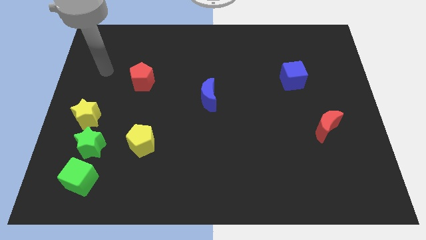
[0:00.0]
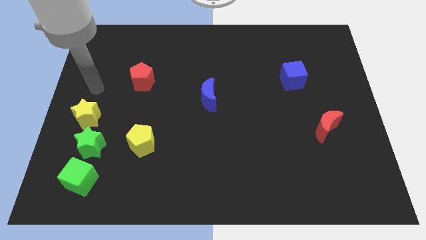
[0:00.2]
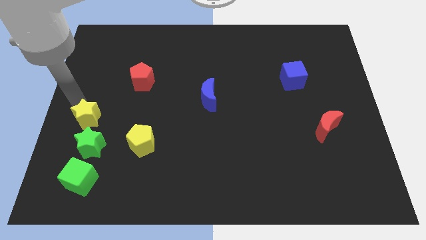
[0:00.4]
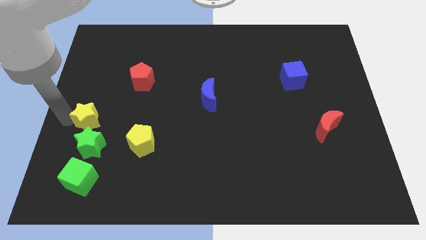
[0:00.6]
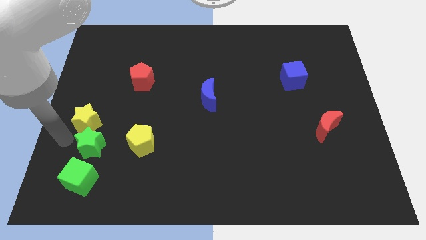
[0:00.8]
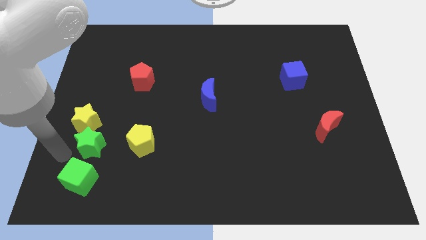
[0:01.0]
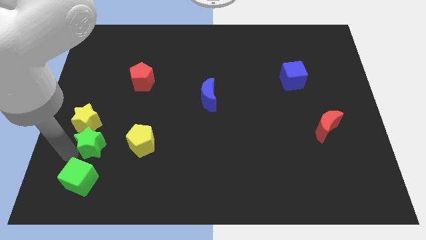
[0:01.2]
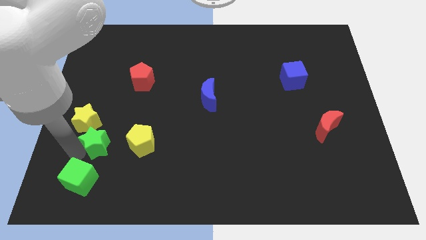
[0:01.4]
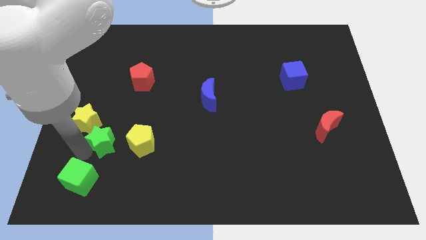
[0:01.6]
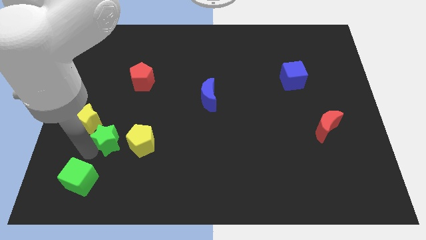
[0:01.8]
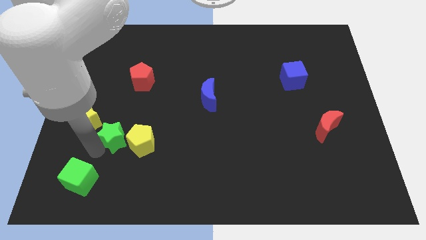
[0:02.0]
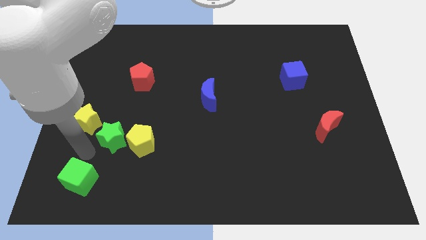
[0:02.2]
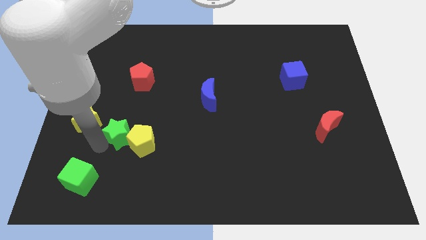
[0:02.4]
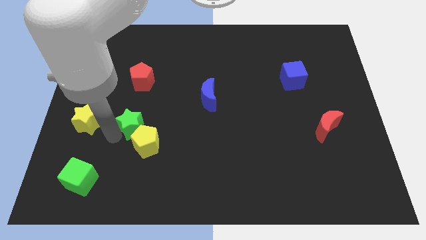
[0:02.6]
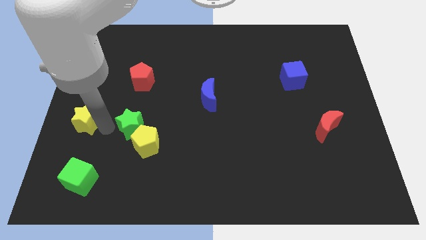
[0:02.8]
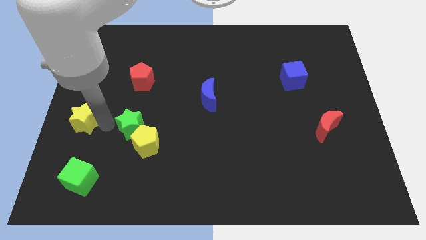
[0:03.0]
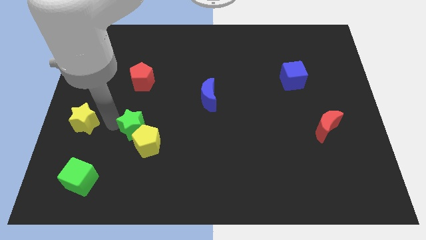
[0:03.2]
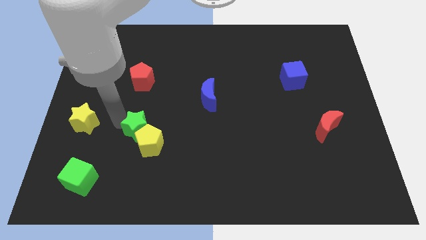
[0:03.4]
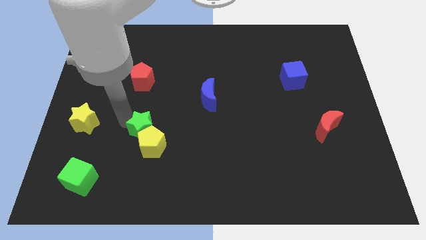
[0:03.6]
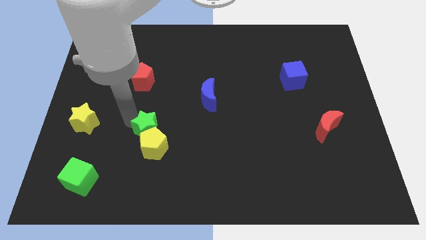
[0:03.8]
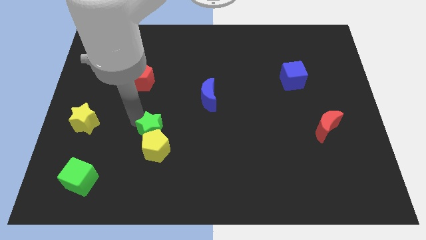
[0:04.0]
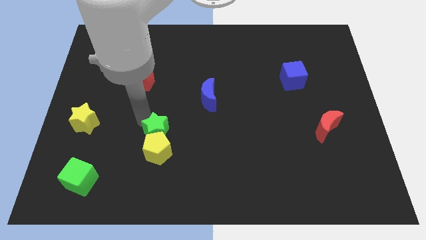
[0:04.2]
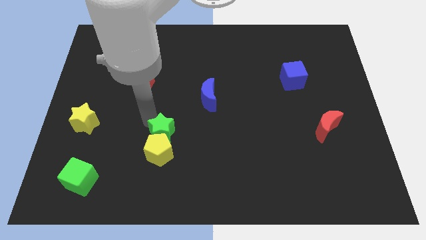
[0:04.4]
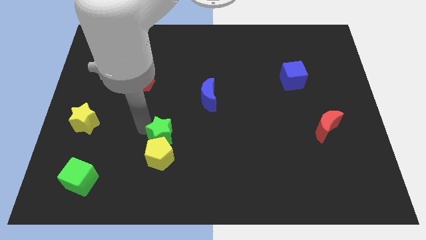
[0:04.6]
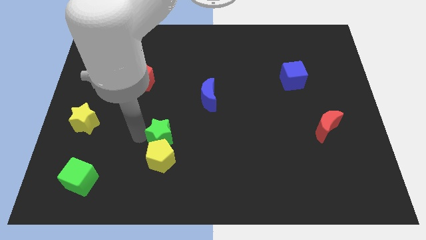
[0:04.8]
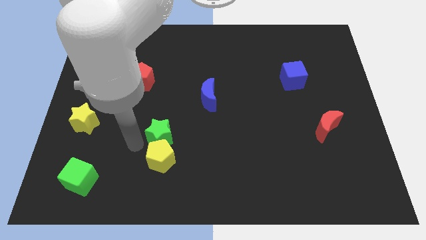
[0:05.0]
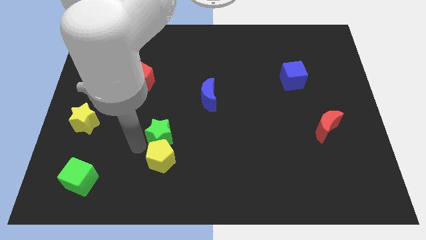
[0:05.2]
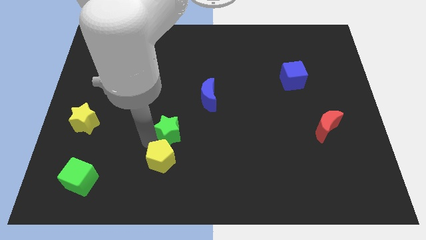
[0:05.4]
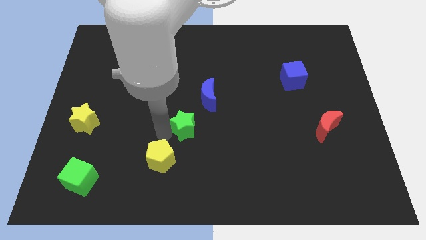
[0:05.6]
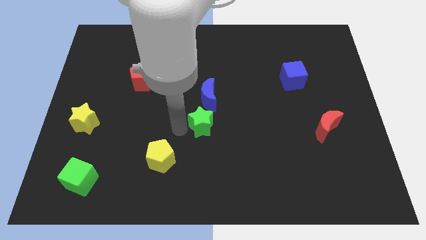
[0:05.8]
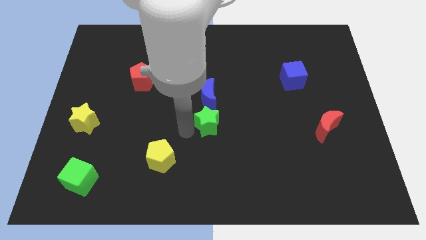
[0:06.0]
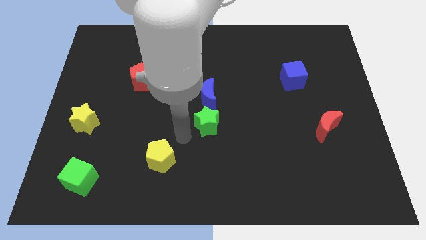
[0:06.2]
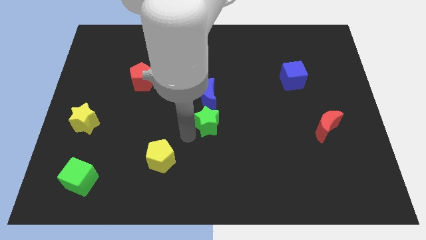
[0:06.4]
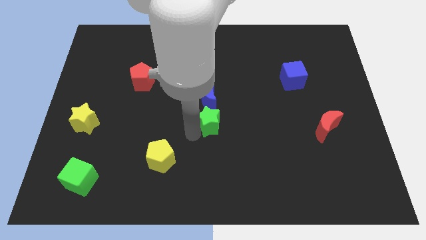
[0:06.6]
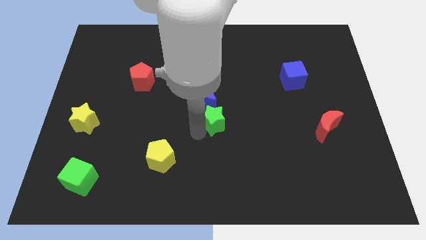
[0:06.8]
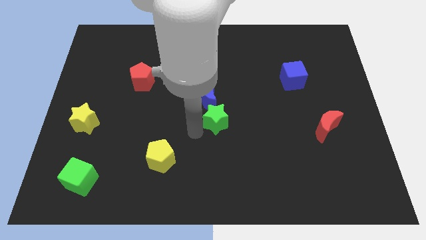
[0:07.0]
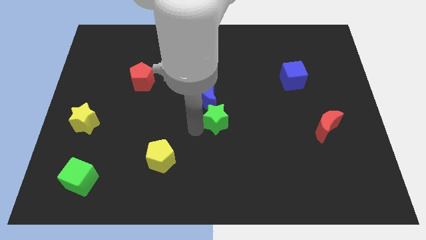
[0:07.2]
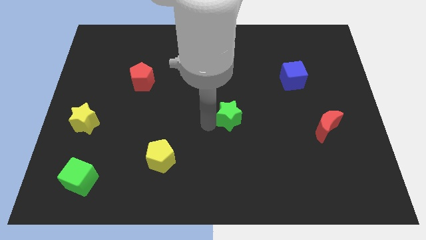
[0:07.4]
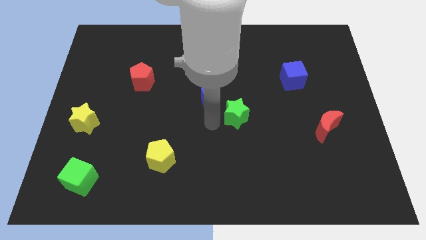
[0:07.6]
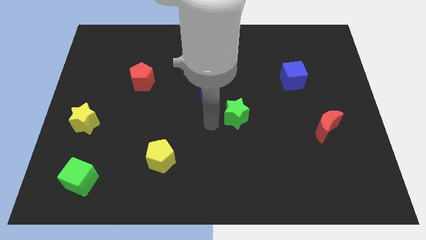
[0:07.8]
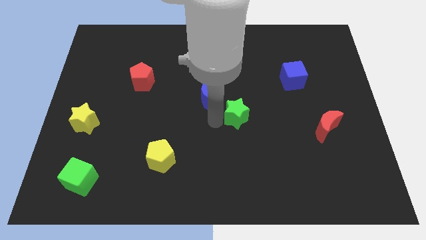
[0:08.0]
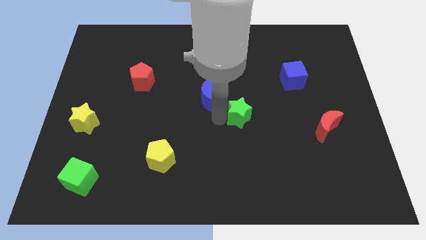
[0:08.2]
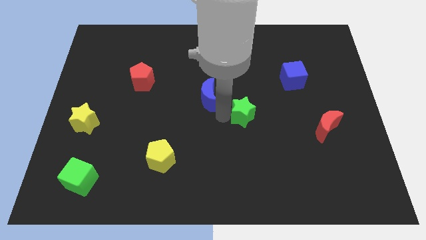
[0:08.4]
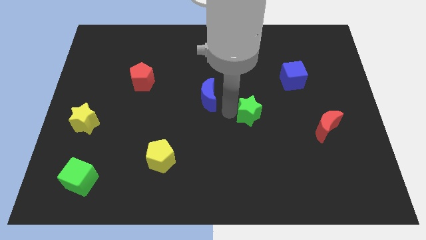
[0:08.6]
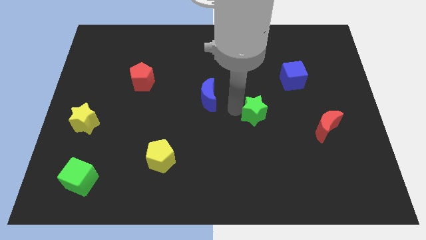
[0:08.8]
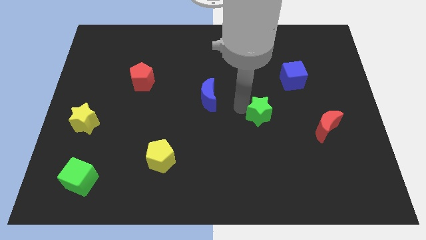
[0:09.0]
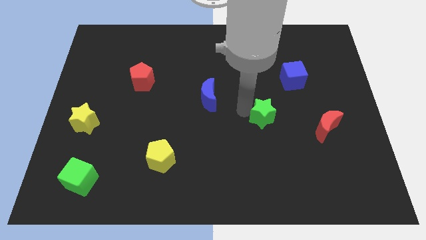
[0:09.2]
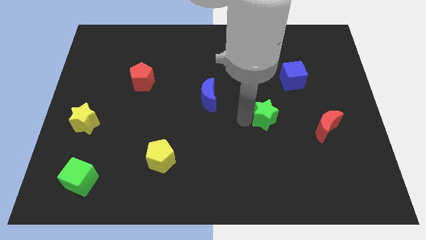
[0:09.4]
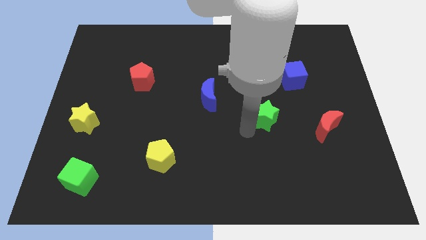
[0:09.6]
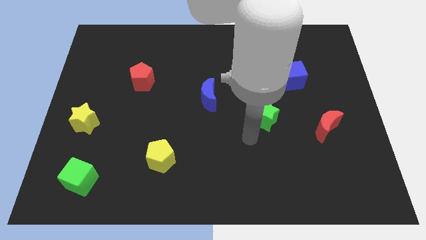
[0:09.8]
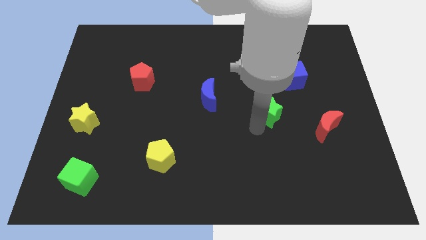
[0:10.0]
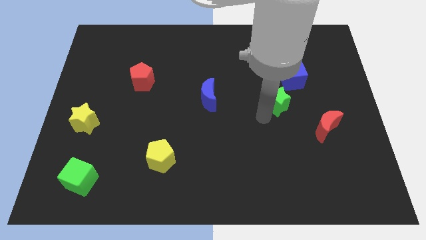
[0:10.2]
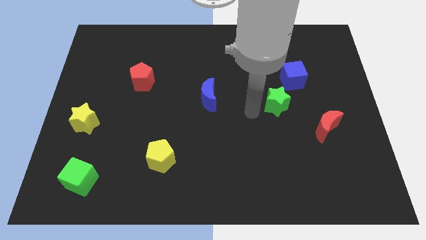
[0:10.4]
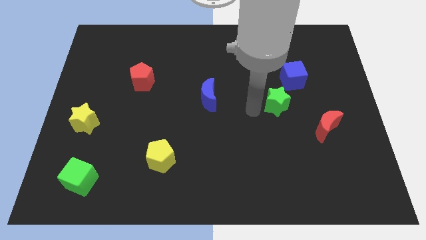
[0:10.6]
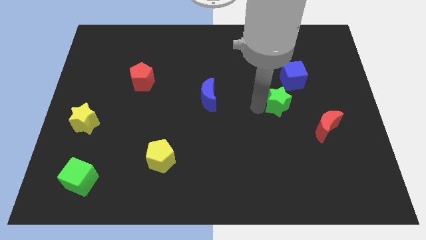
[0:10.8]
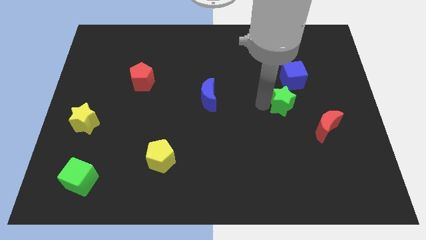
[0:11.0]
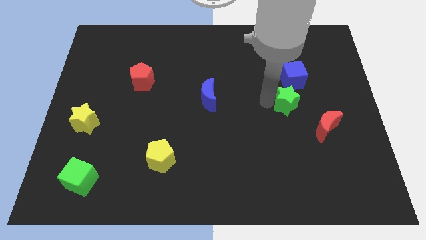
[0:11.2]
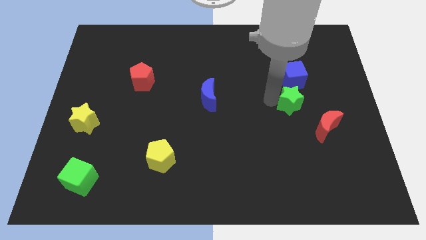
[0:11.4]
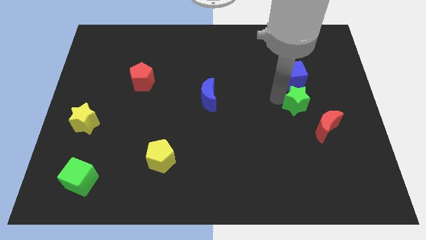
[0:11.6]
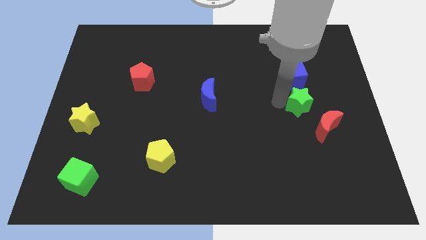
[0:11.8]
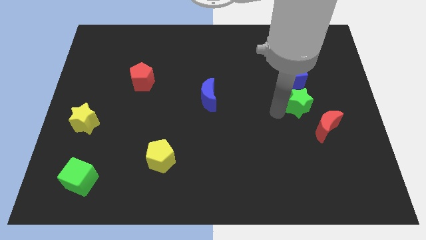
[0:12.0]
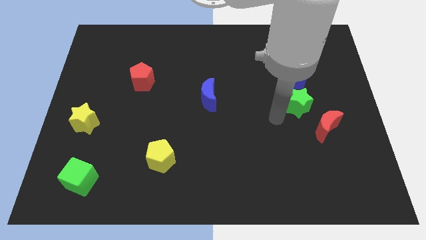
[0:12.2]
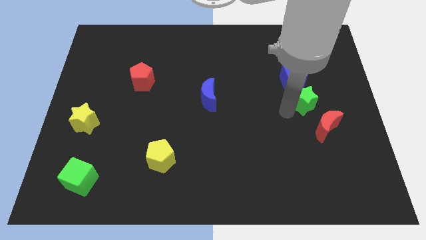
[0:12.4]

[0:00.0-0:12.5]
slide the green star above the red moon

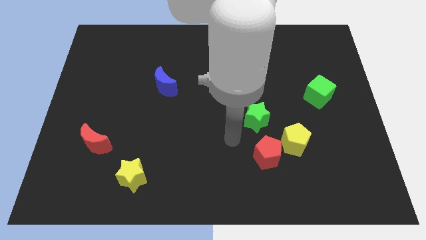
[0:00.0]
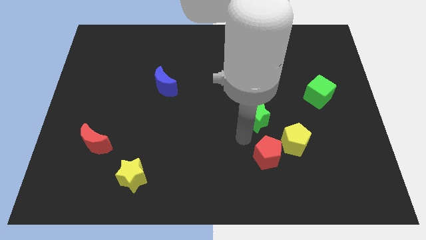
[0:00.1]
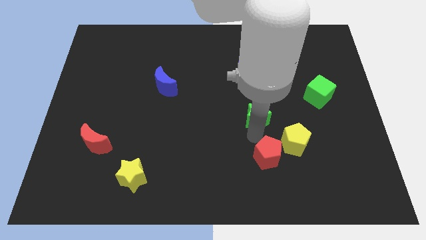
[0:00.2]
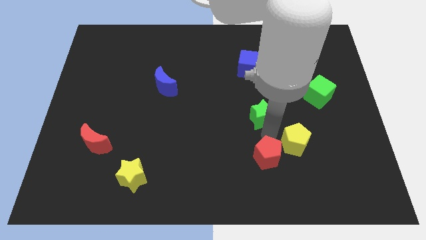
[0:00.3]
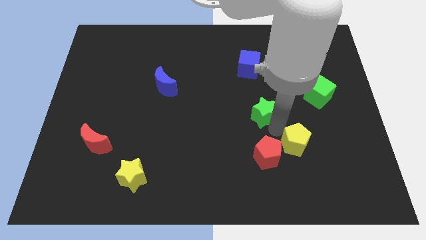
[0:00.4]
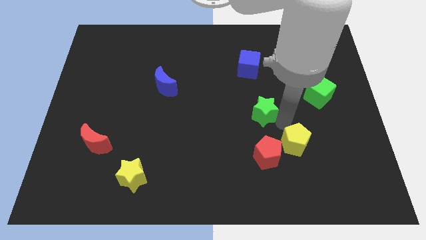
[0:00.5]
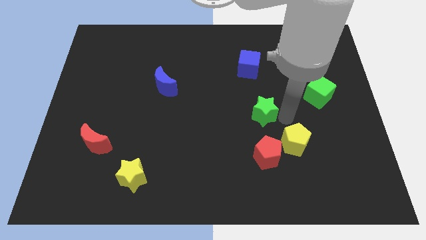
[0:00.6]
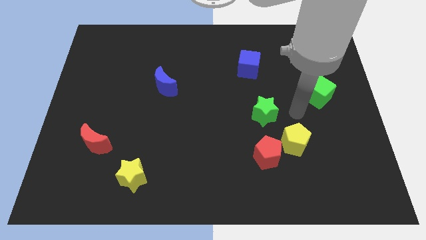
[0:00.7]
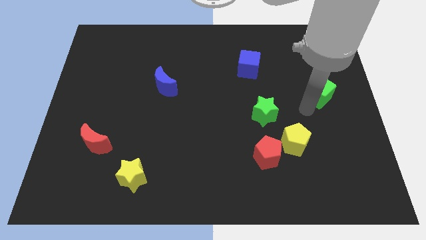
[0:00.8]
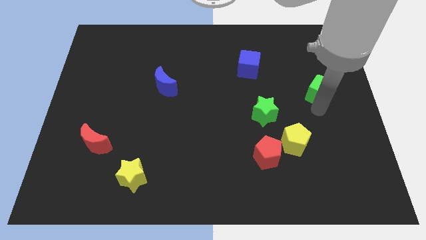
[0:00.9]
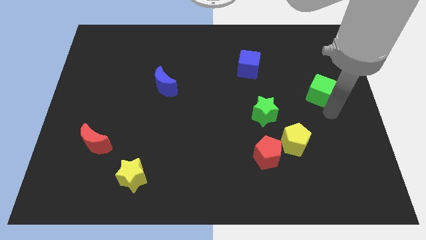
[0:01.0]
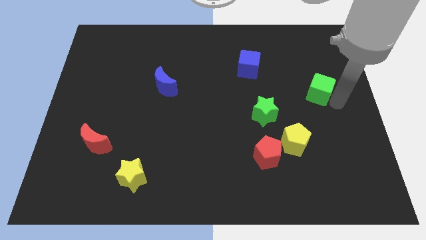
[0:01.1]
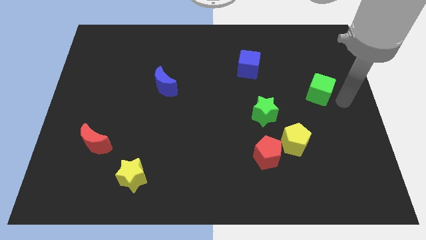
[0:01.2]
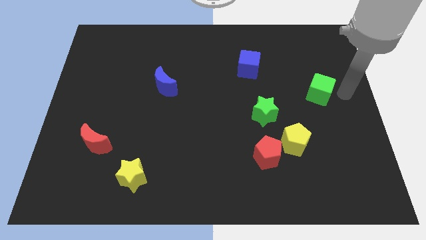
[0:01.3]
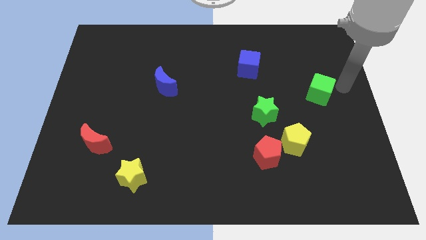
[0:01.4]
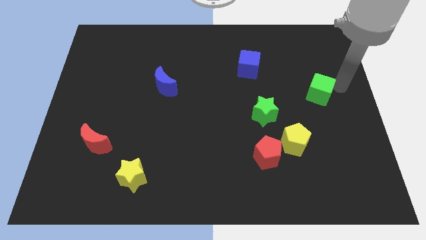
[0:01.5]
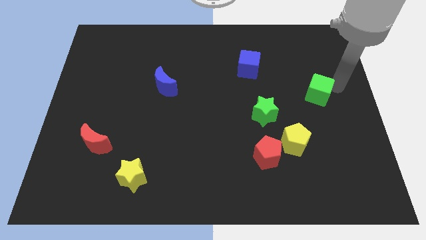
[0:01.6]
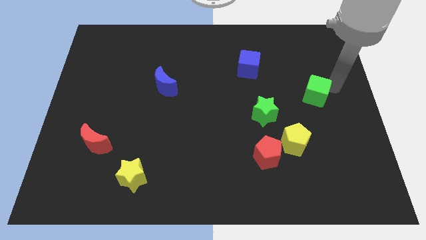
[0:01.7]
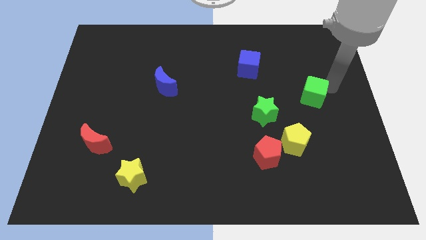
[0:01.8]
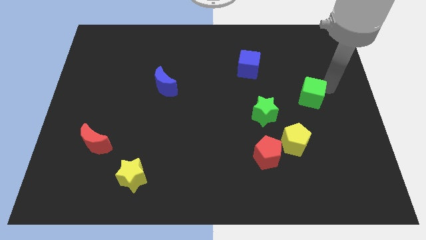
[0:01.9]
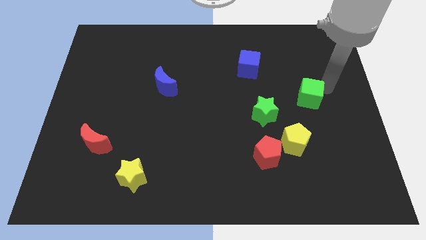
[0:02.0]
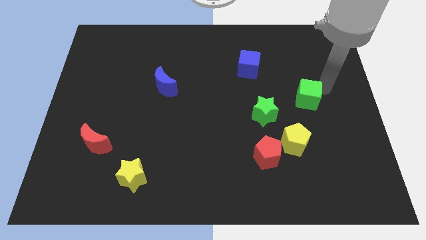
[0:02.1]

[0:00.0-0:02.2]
slide the green cube to the top right of the green star
